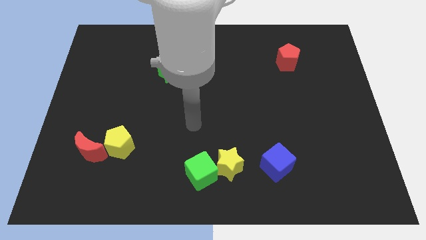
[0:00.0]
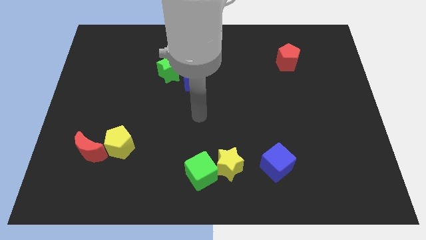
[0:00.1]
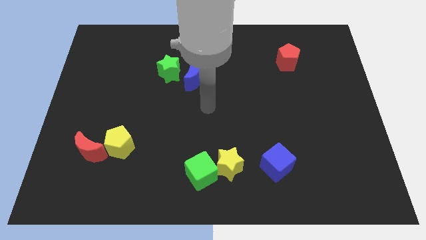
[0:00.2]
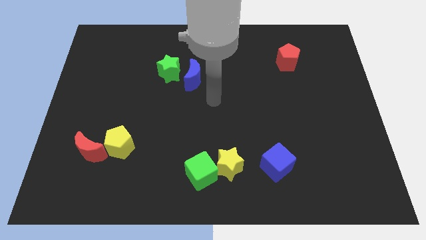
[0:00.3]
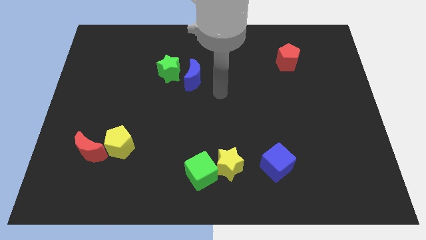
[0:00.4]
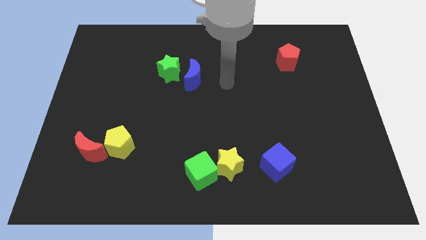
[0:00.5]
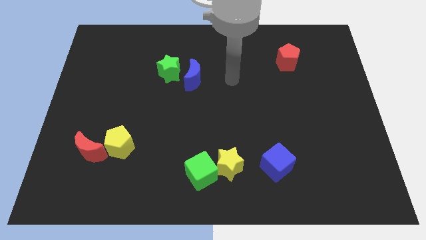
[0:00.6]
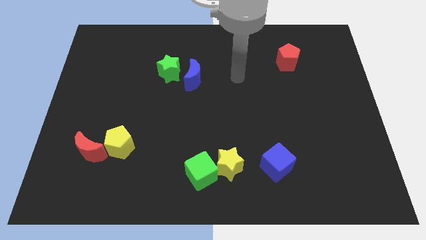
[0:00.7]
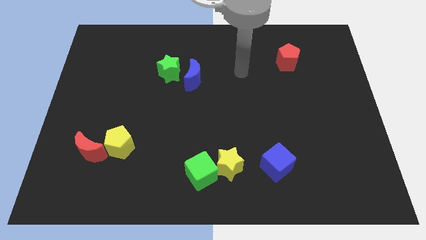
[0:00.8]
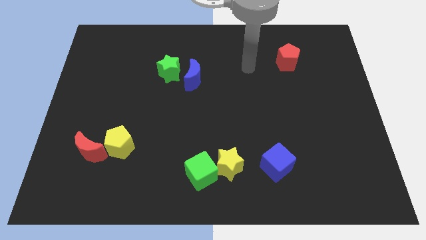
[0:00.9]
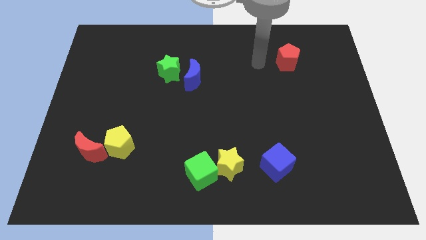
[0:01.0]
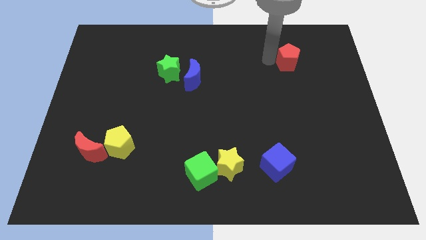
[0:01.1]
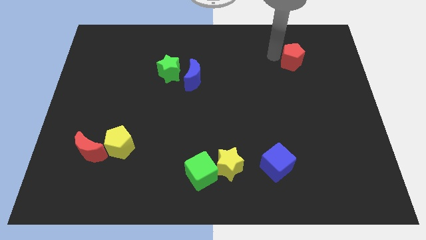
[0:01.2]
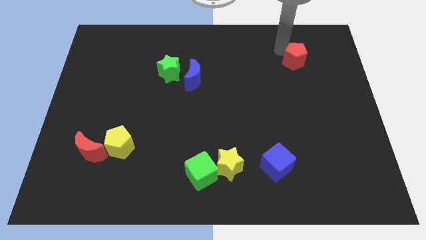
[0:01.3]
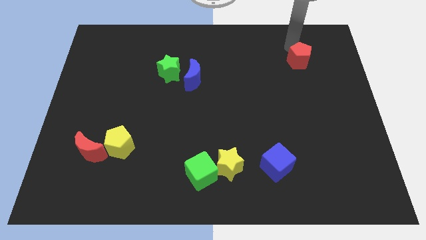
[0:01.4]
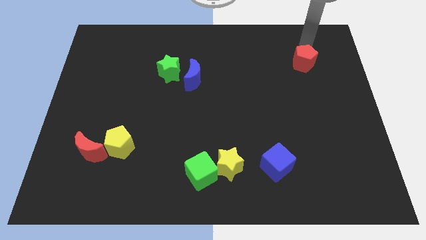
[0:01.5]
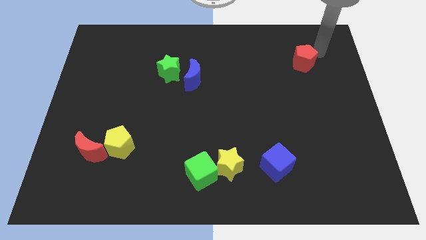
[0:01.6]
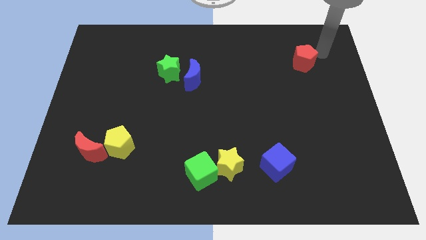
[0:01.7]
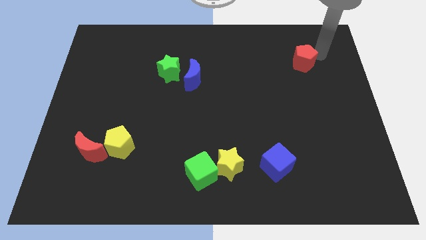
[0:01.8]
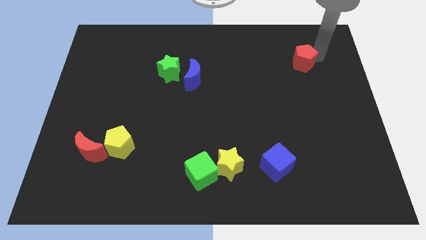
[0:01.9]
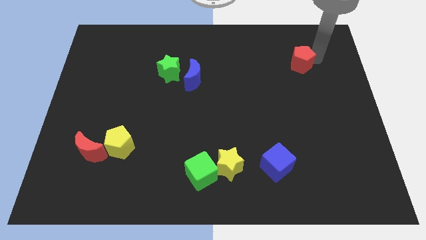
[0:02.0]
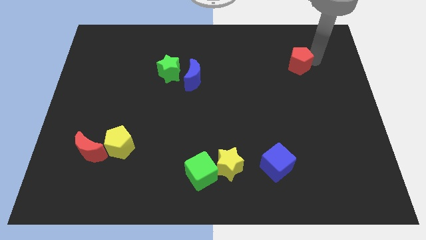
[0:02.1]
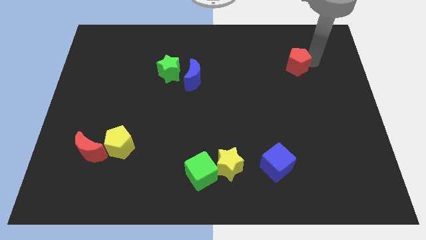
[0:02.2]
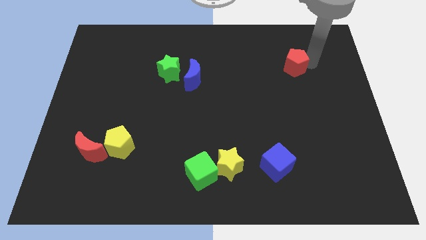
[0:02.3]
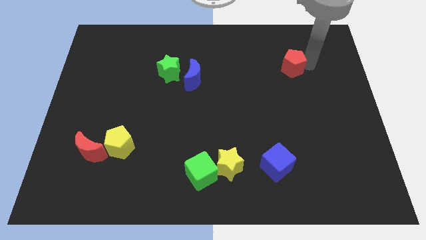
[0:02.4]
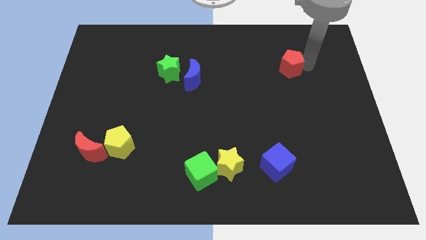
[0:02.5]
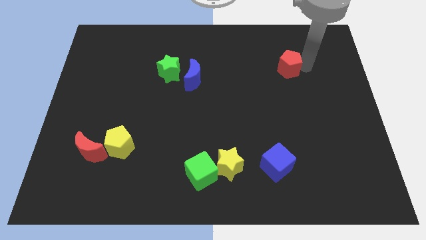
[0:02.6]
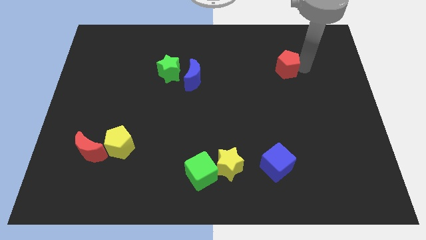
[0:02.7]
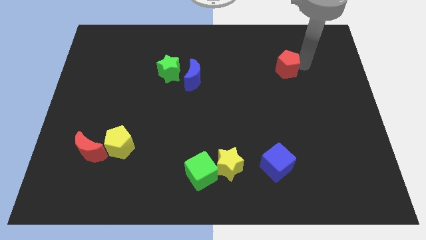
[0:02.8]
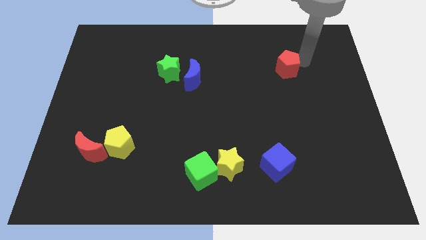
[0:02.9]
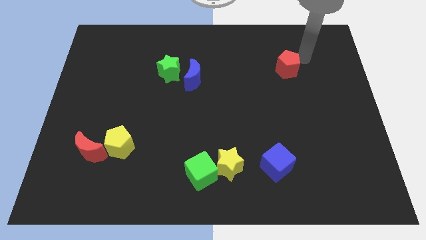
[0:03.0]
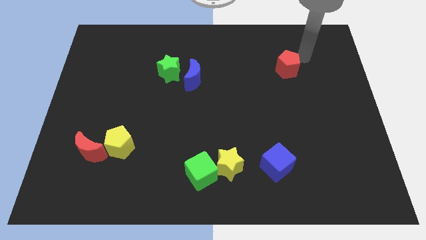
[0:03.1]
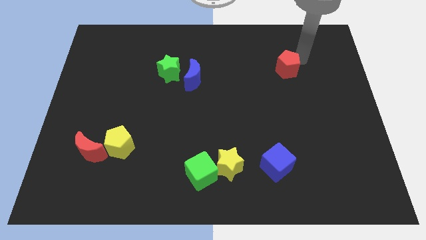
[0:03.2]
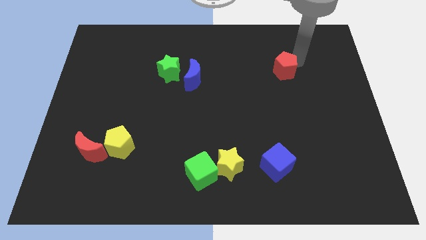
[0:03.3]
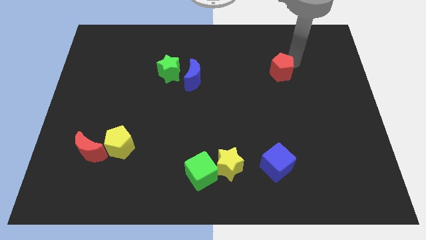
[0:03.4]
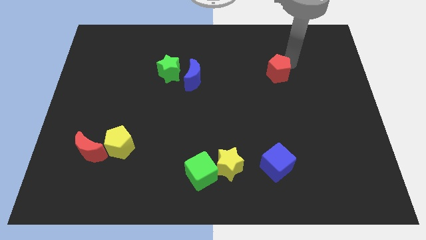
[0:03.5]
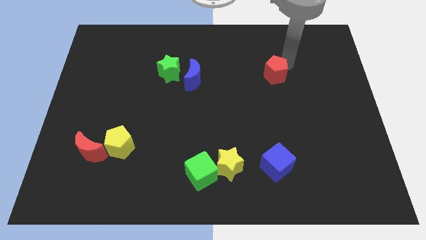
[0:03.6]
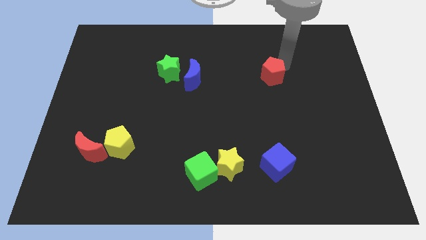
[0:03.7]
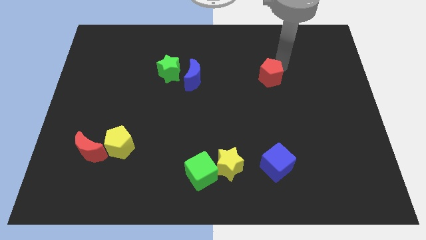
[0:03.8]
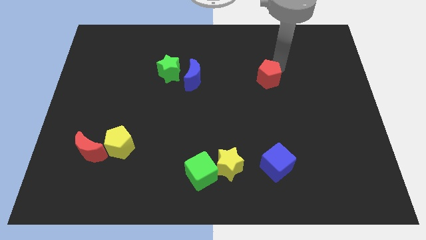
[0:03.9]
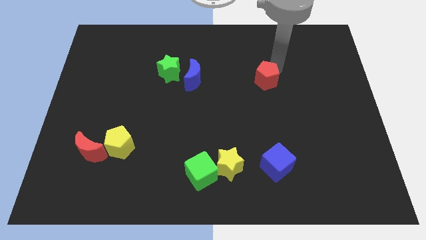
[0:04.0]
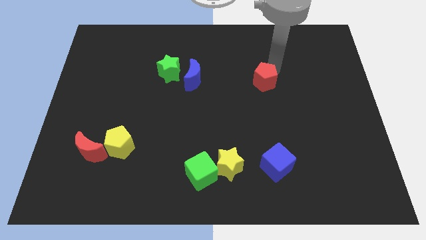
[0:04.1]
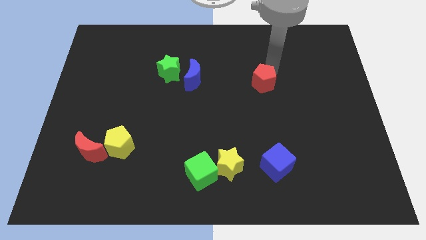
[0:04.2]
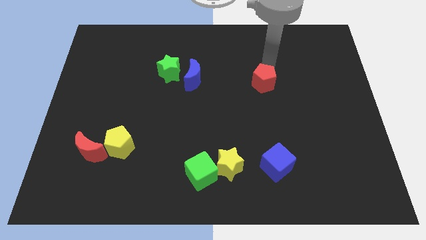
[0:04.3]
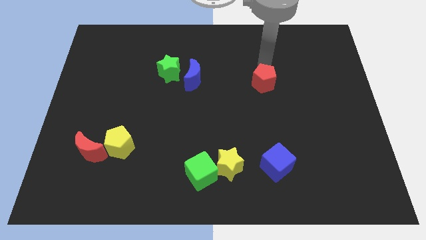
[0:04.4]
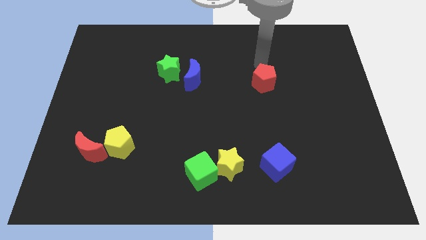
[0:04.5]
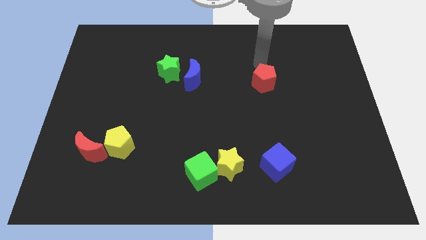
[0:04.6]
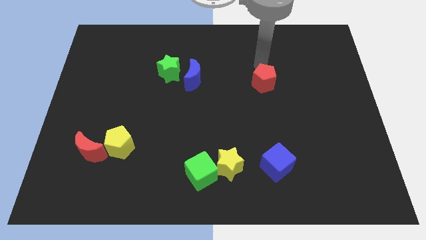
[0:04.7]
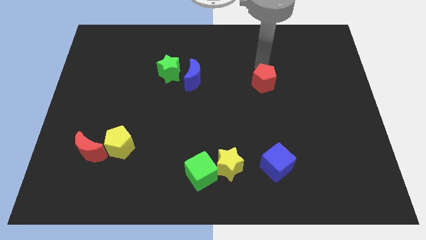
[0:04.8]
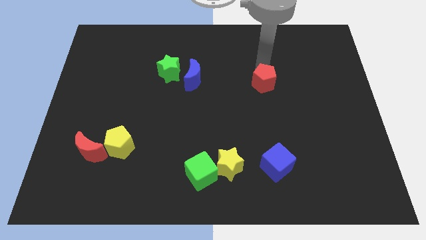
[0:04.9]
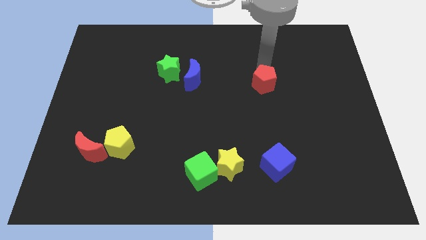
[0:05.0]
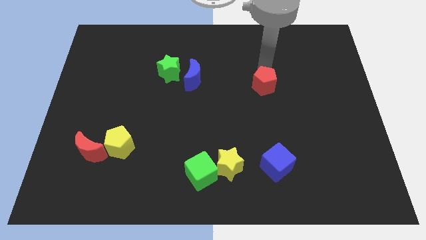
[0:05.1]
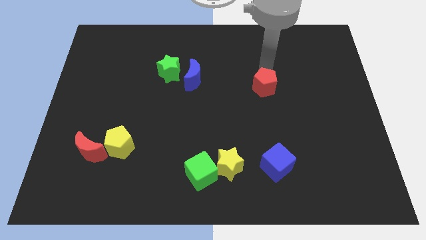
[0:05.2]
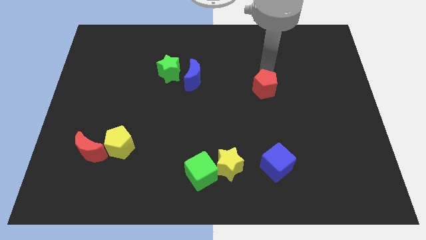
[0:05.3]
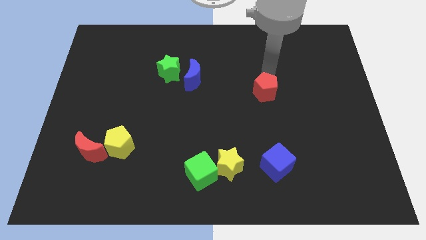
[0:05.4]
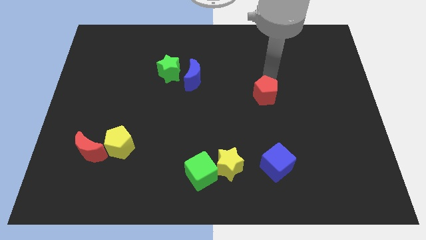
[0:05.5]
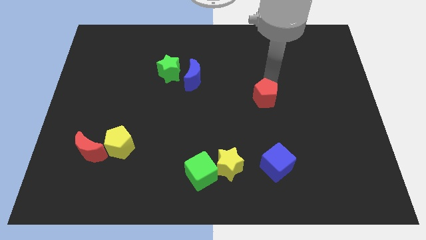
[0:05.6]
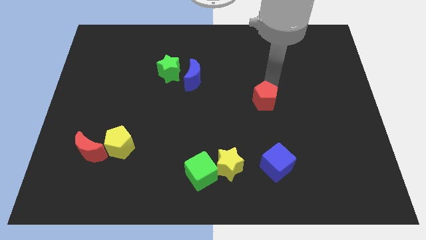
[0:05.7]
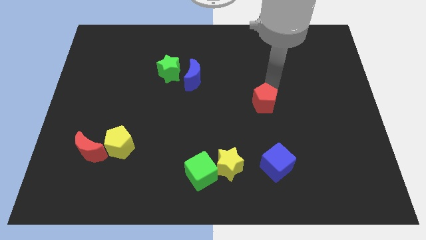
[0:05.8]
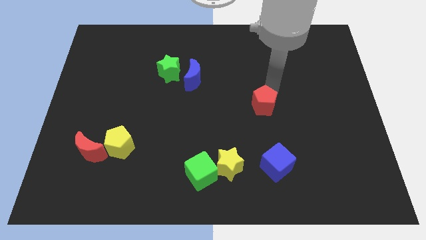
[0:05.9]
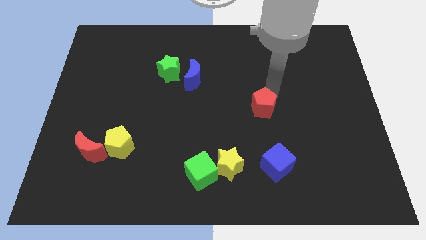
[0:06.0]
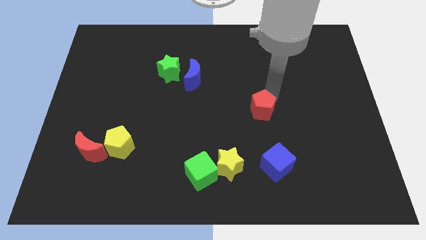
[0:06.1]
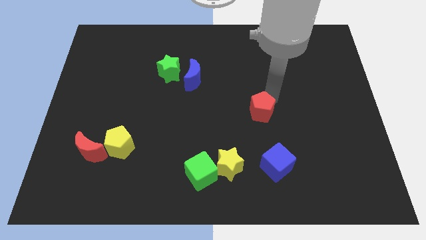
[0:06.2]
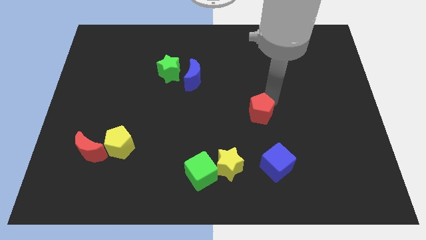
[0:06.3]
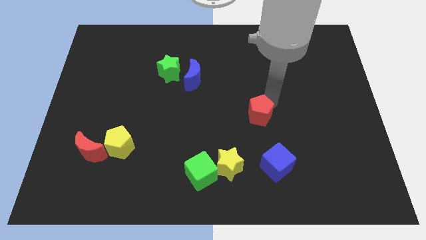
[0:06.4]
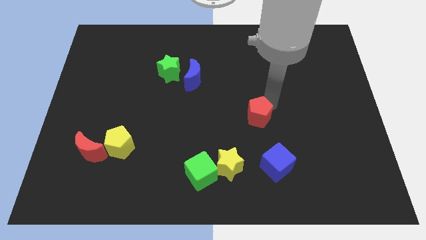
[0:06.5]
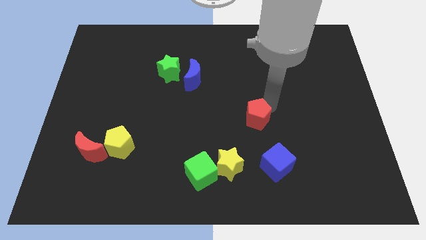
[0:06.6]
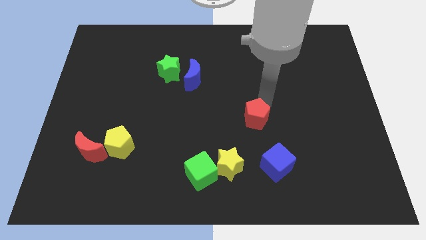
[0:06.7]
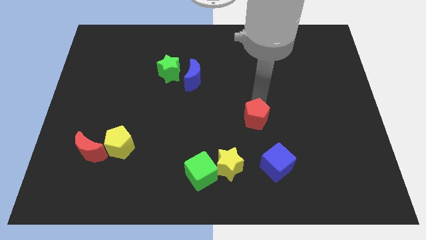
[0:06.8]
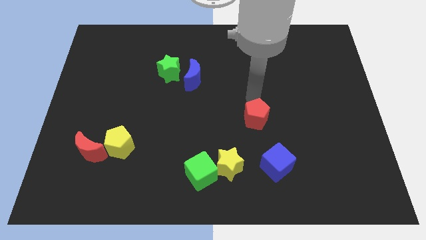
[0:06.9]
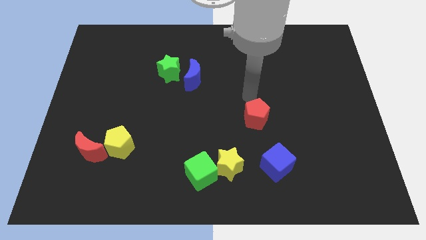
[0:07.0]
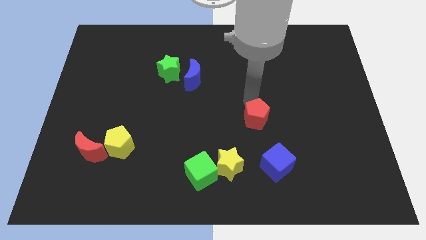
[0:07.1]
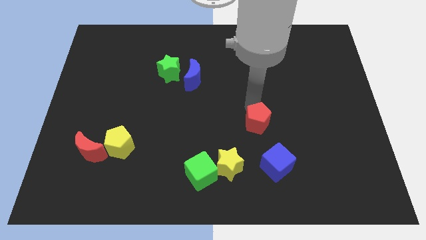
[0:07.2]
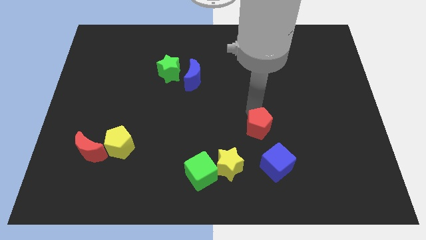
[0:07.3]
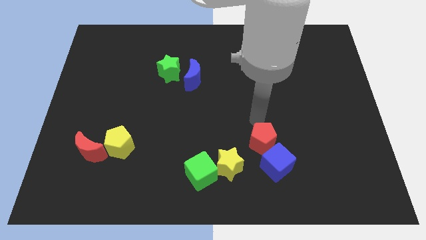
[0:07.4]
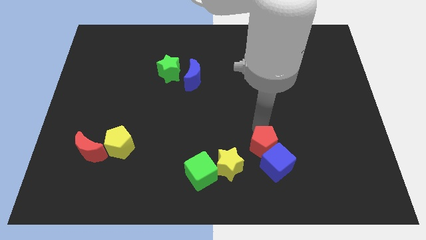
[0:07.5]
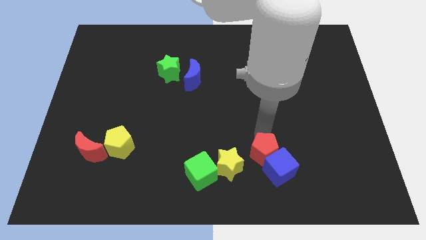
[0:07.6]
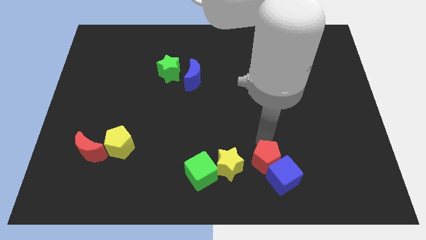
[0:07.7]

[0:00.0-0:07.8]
slide the red pentagon to the right side of the green cube
